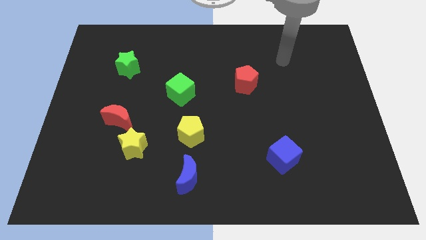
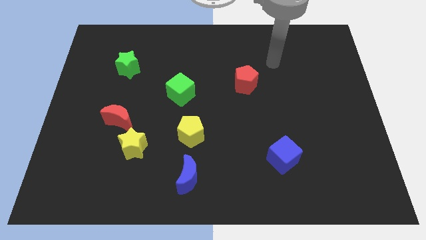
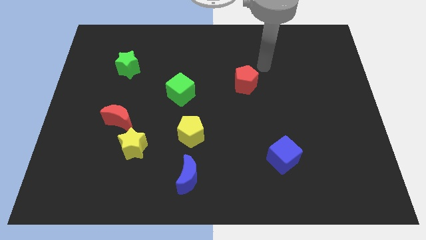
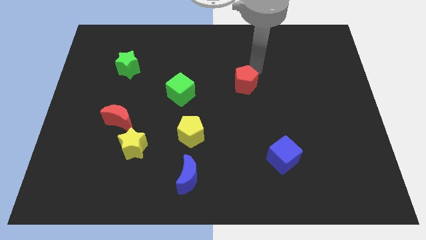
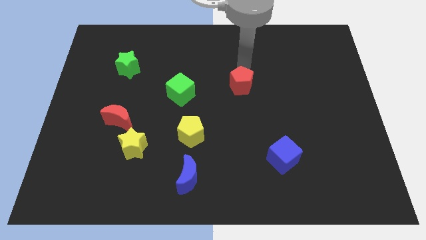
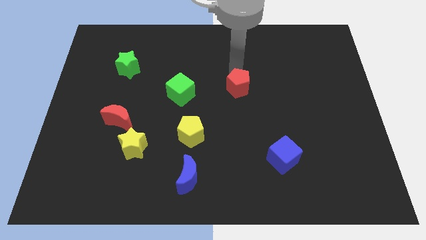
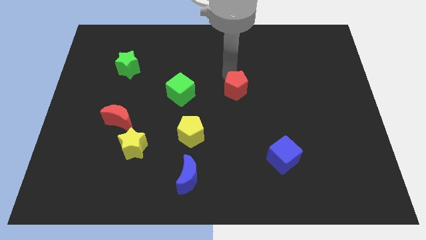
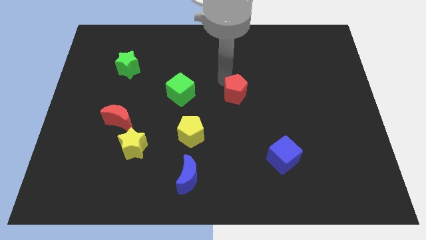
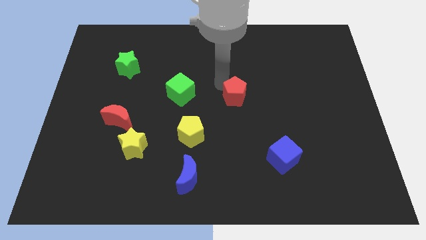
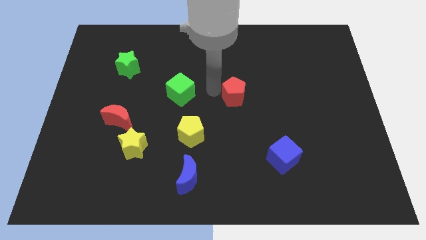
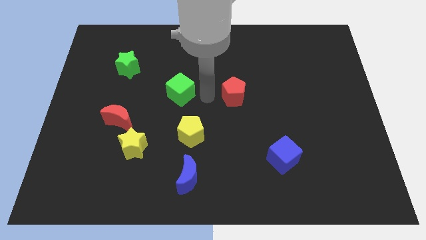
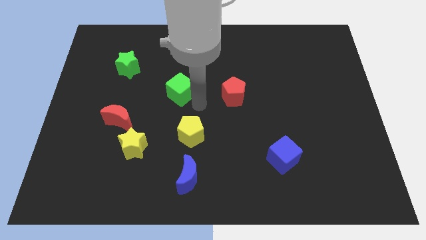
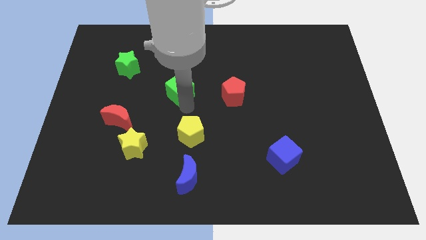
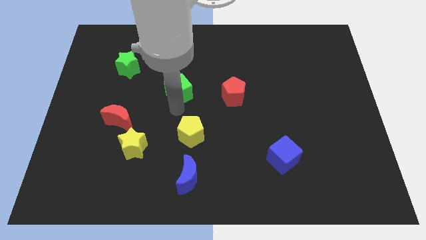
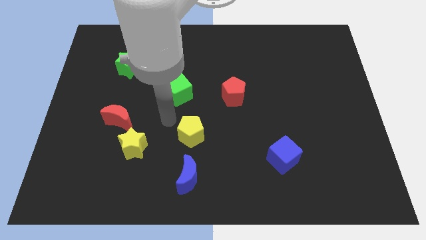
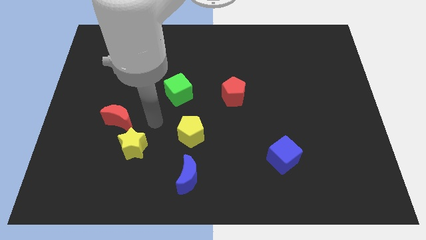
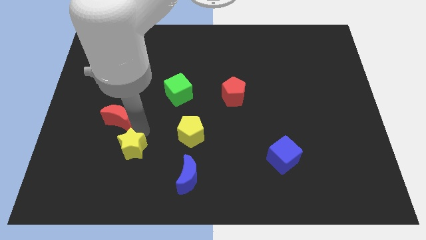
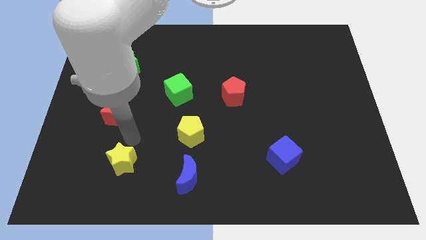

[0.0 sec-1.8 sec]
pull the red moon apart from the yellow star

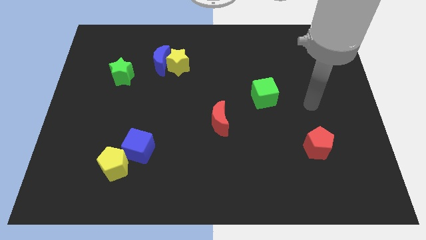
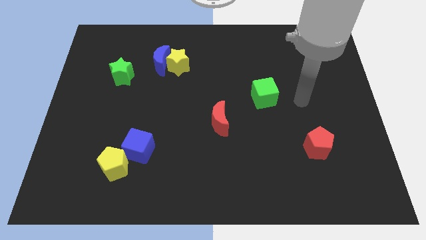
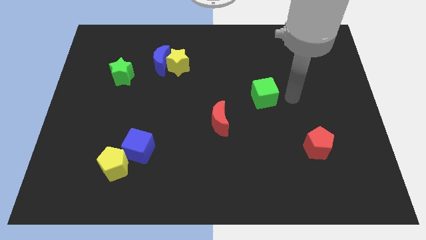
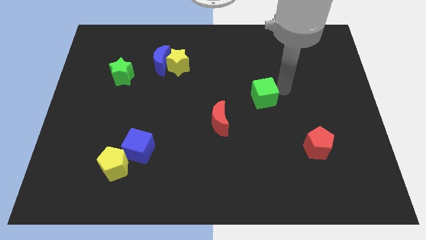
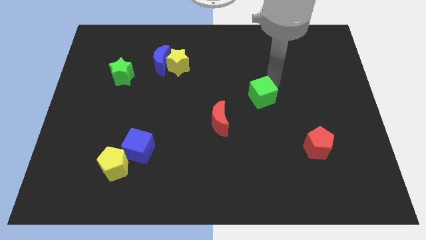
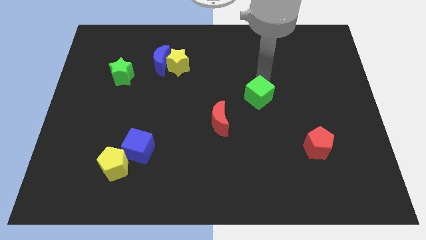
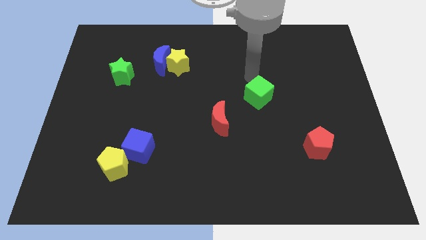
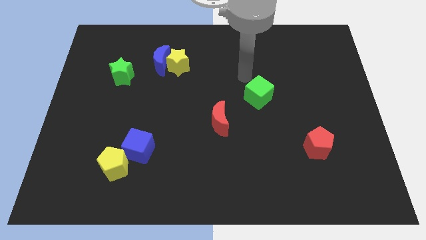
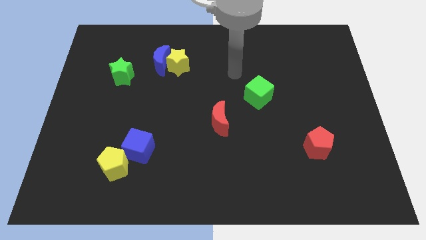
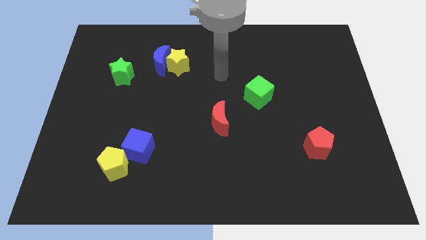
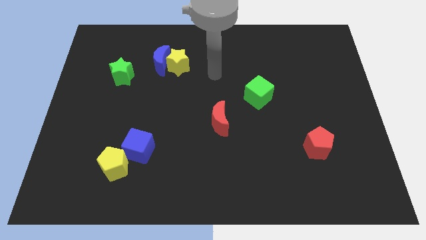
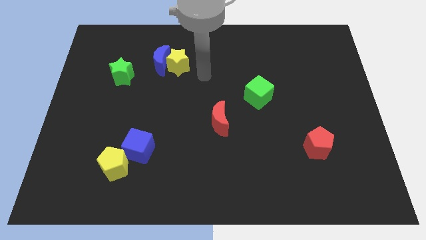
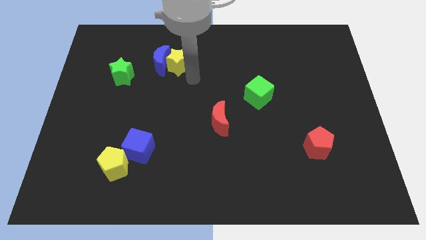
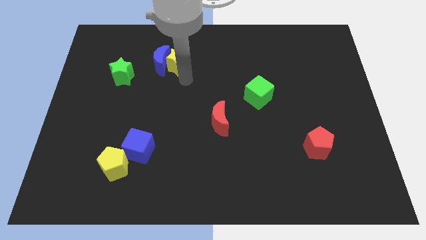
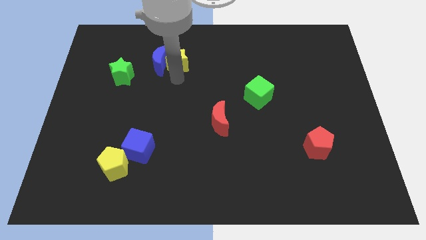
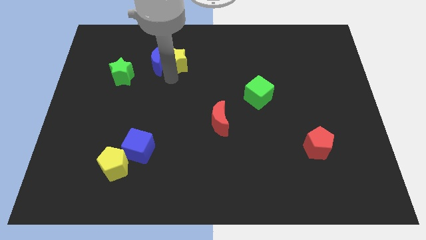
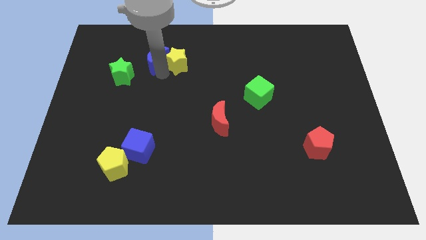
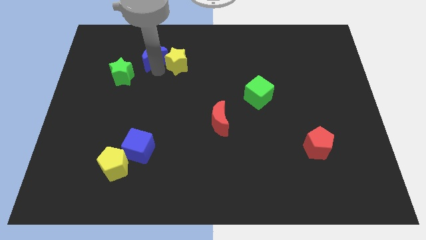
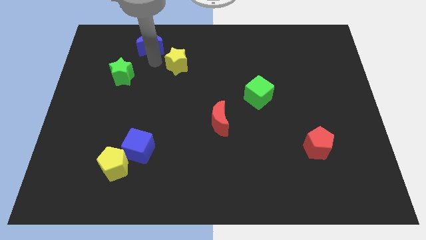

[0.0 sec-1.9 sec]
pull the yellow star apart from the blue moon

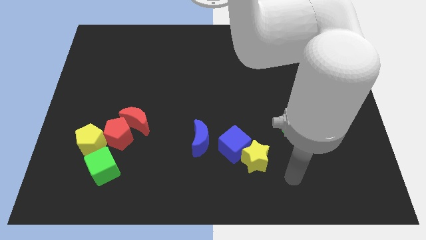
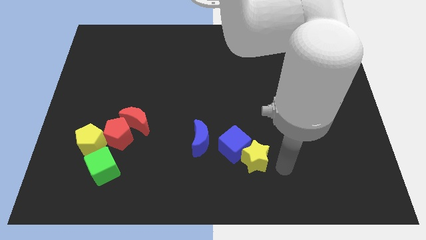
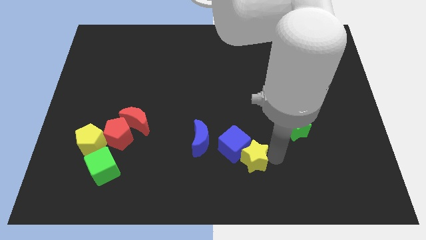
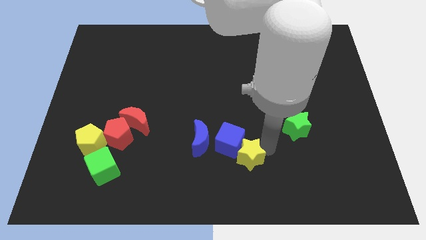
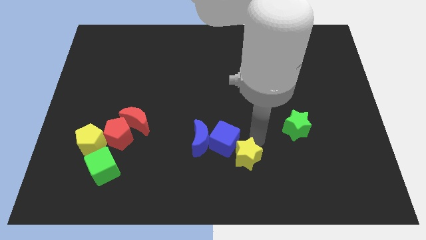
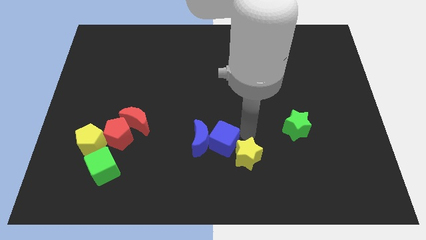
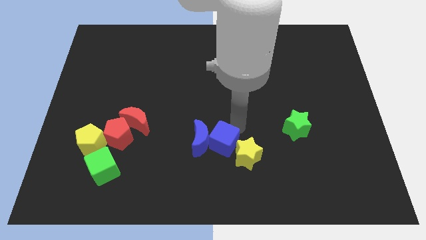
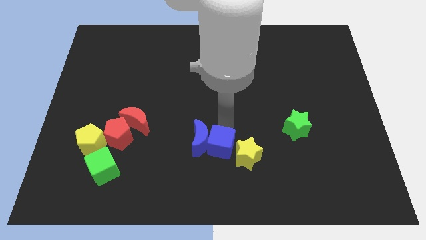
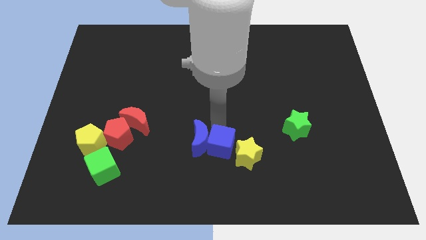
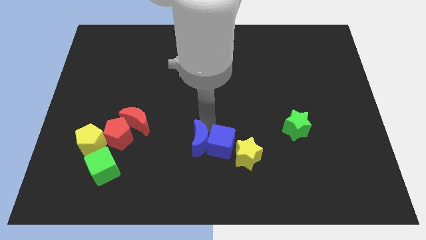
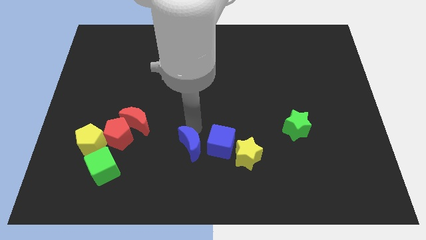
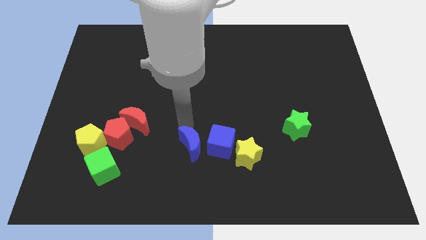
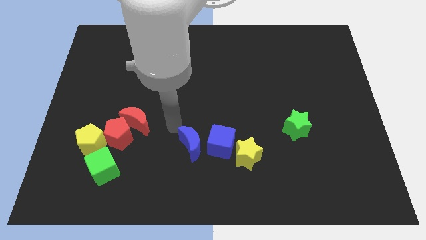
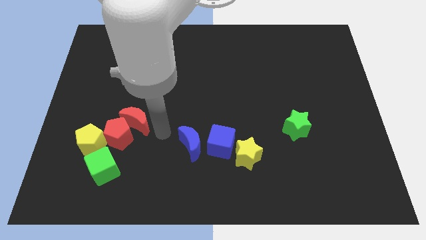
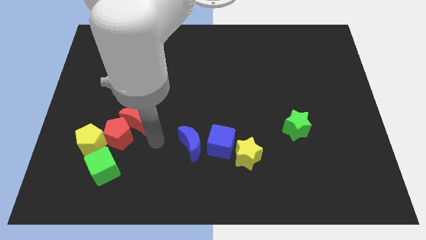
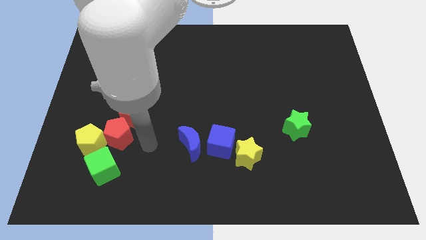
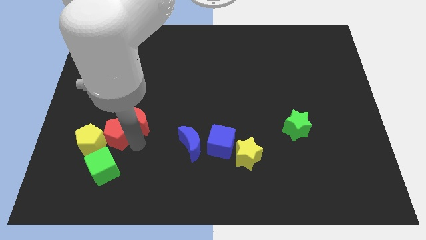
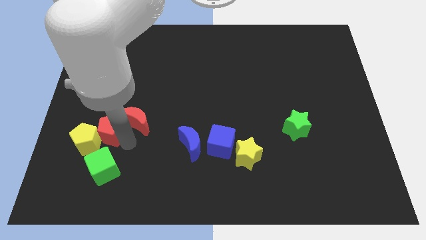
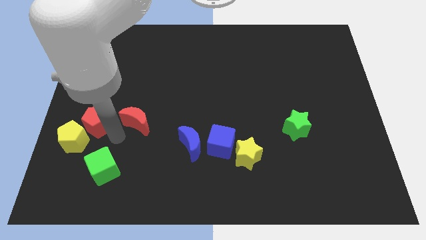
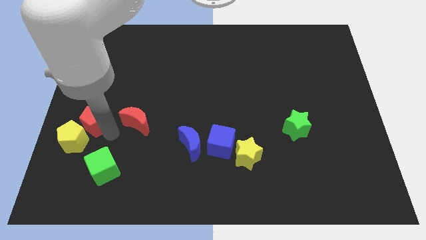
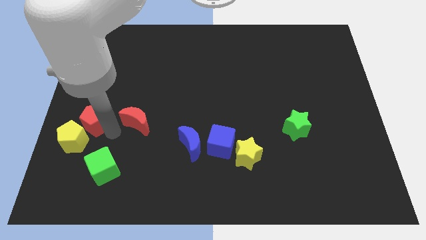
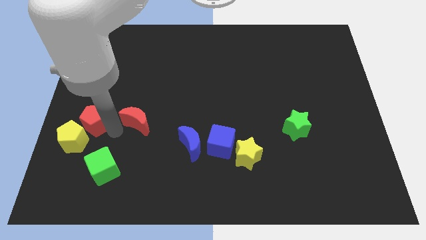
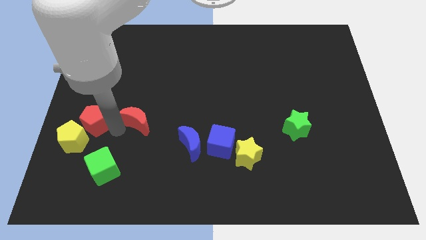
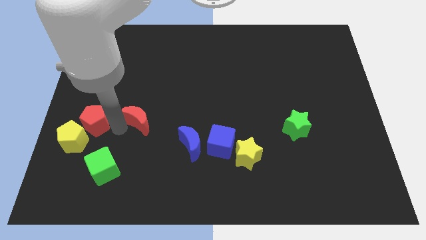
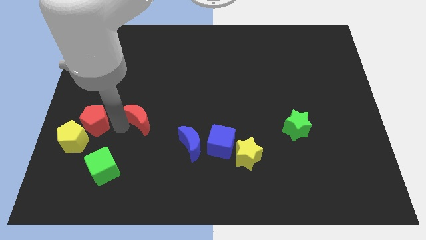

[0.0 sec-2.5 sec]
pull the red moon apart from the red pentagon

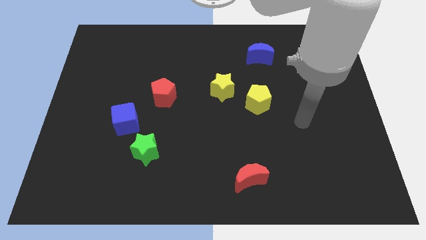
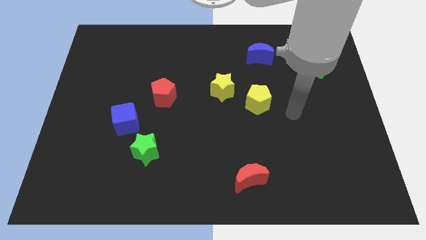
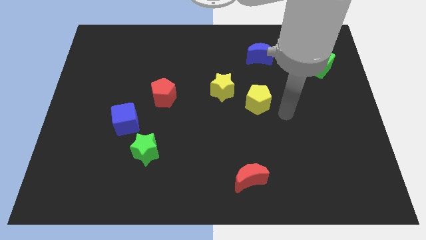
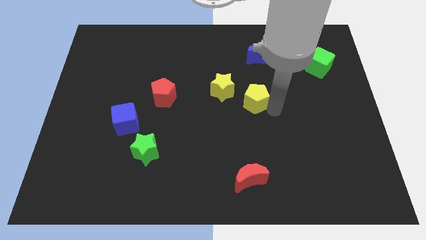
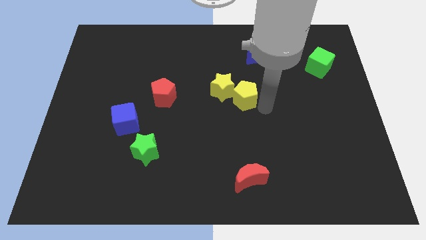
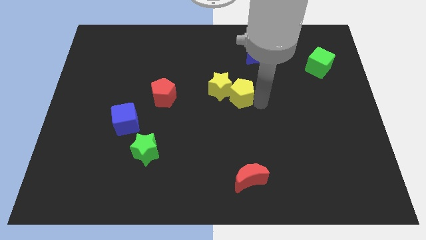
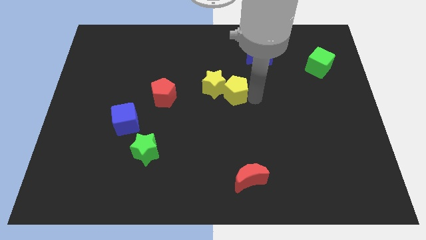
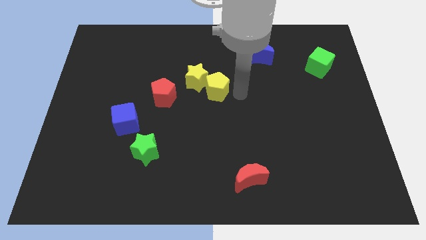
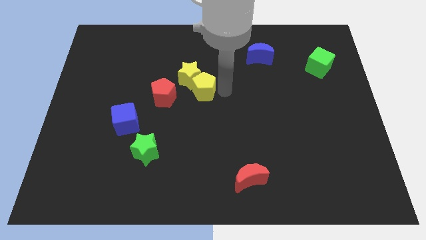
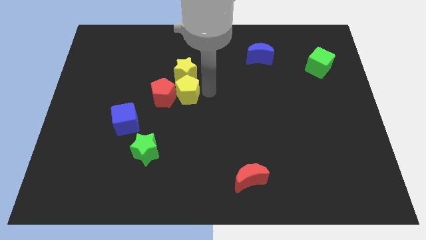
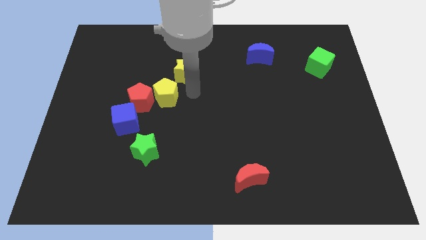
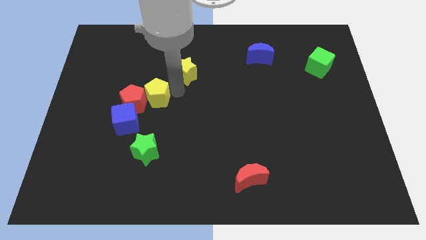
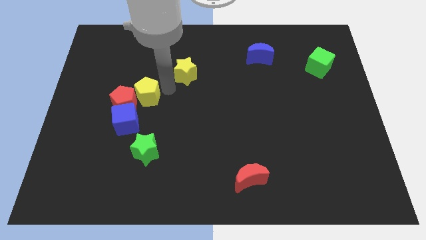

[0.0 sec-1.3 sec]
pull the yellow star apart from the yellow pentagon

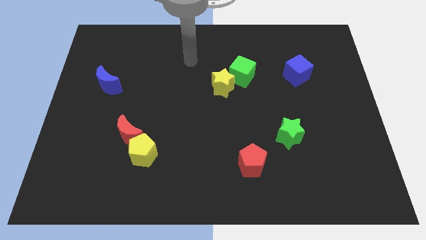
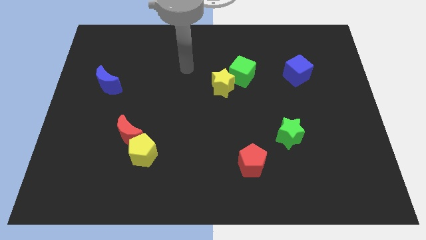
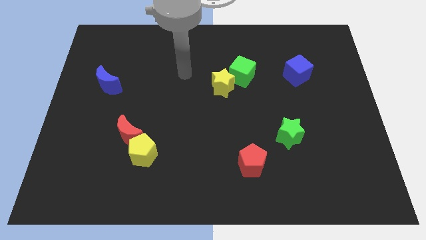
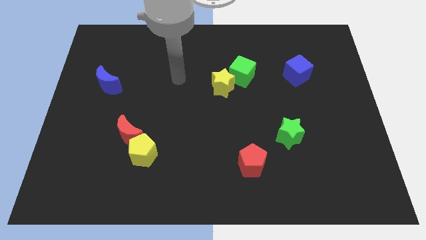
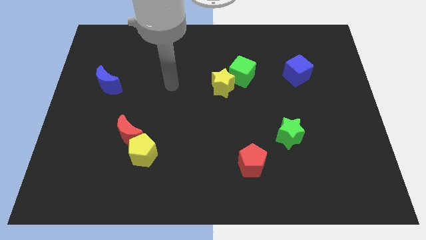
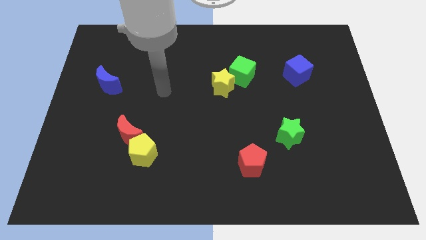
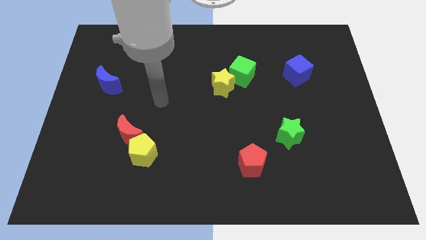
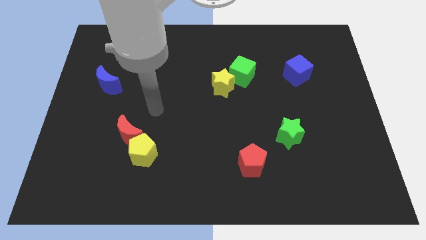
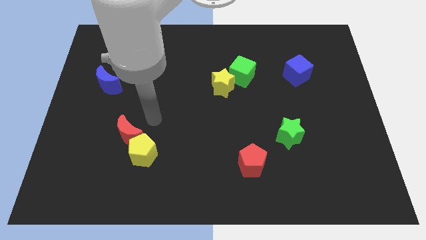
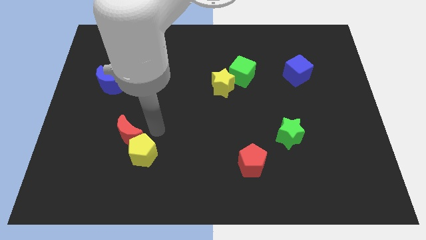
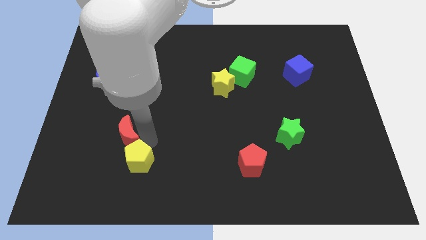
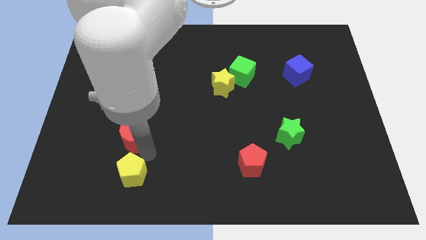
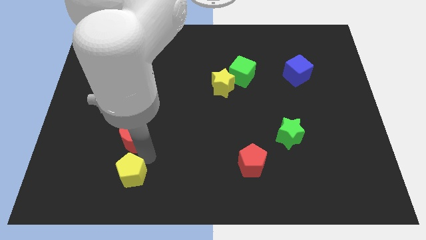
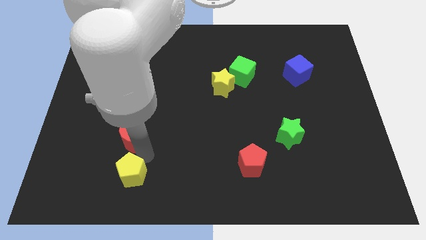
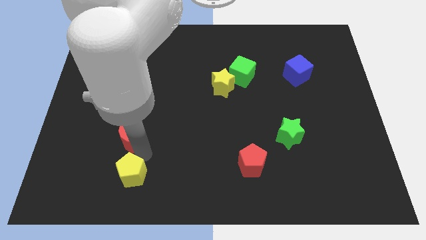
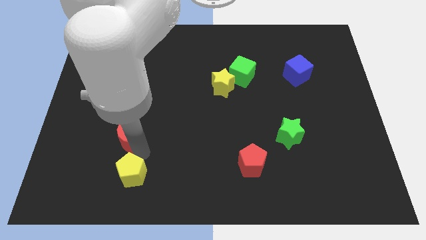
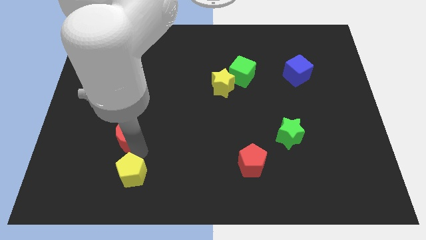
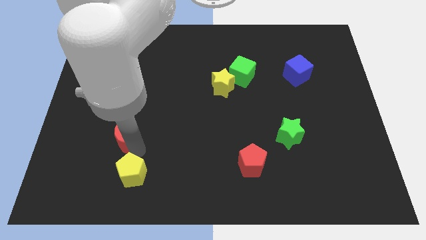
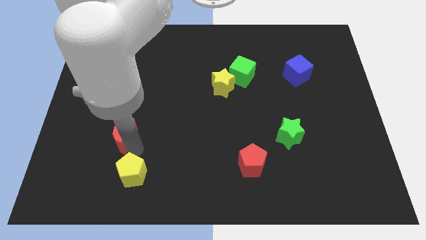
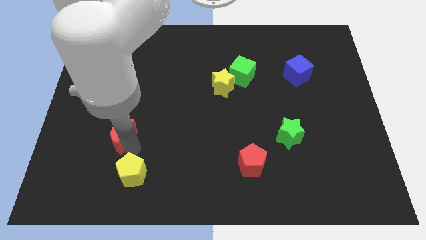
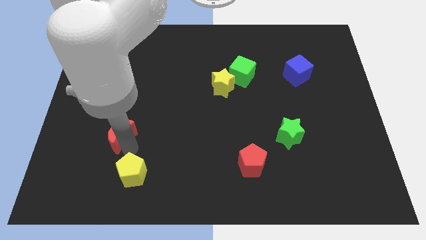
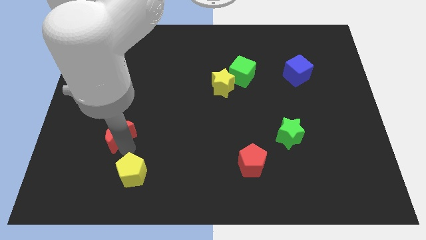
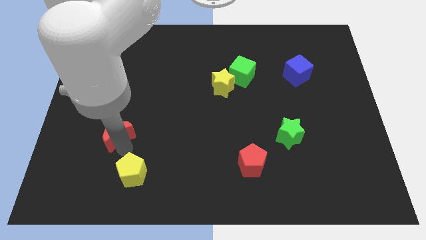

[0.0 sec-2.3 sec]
pull the red moon apart from the yellow pentagon
